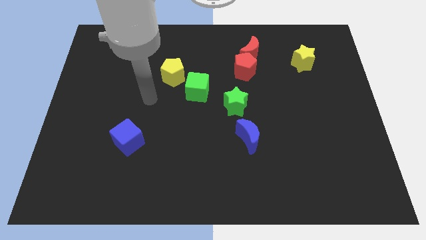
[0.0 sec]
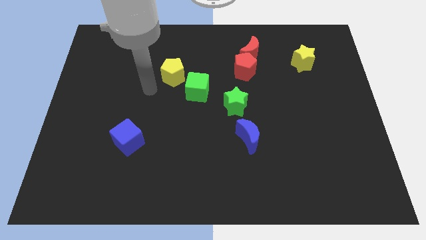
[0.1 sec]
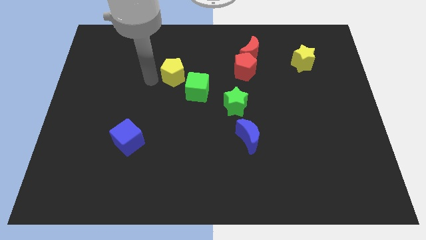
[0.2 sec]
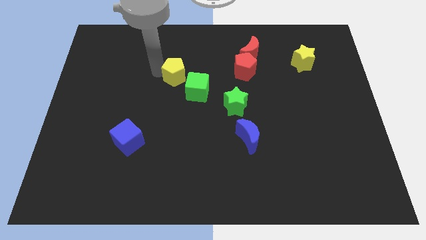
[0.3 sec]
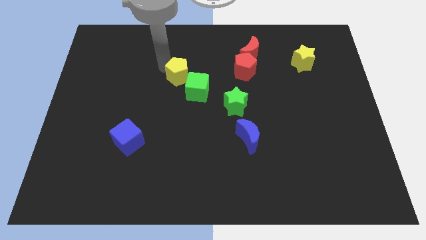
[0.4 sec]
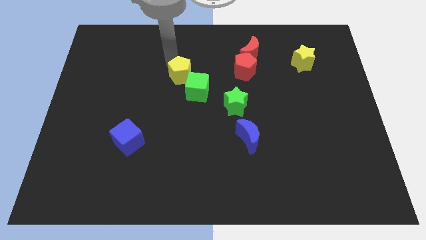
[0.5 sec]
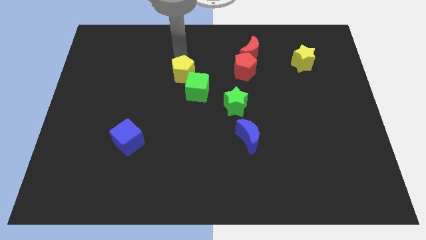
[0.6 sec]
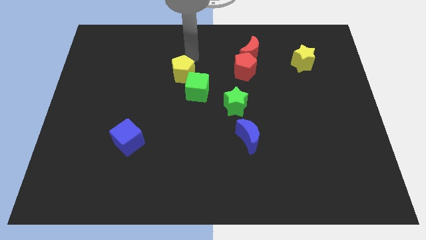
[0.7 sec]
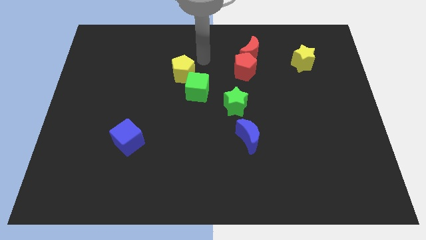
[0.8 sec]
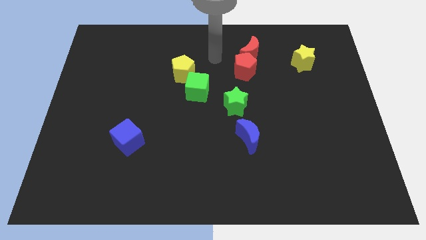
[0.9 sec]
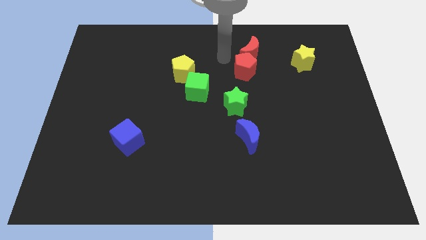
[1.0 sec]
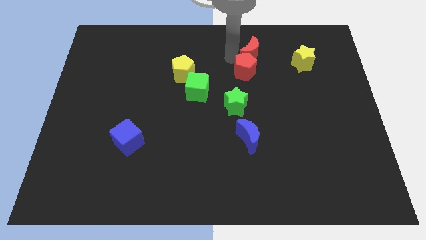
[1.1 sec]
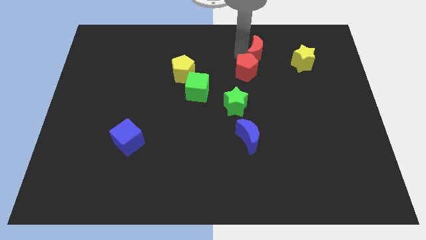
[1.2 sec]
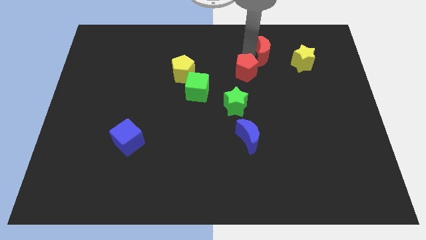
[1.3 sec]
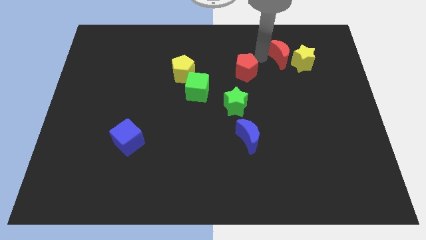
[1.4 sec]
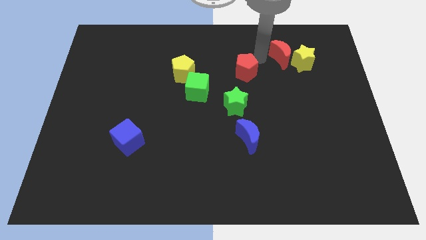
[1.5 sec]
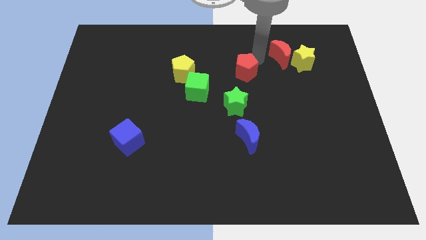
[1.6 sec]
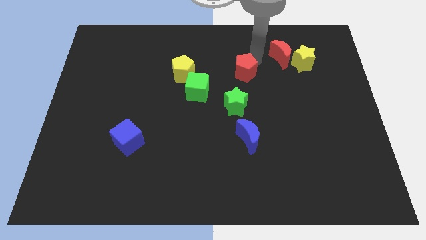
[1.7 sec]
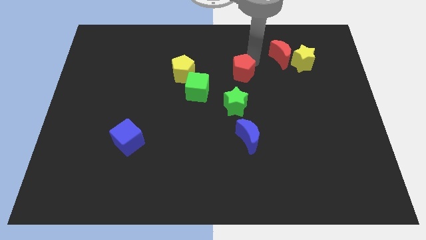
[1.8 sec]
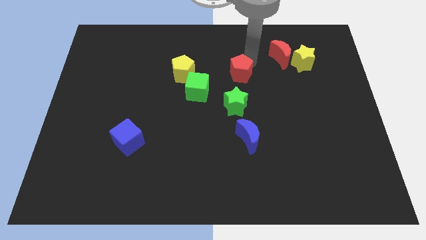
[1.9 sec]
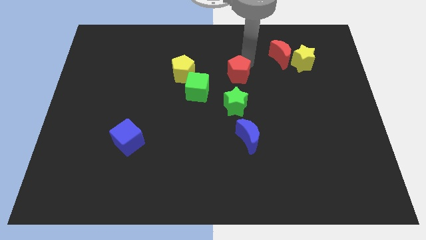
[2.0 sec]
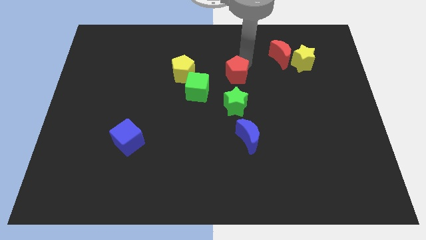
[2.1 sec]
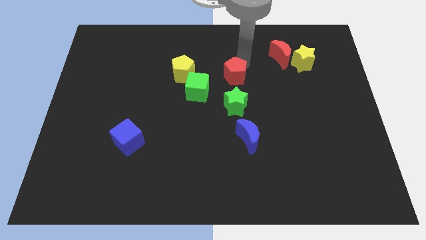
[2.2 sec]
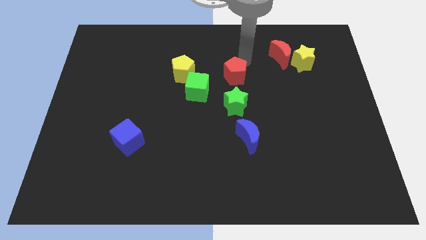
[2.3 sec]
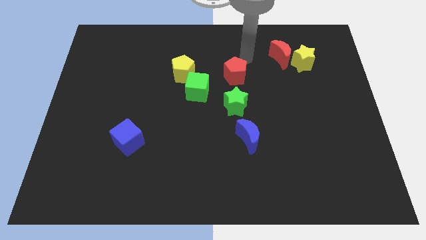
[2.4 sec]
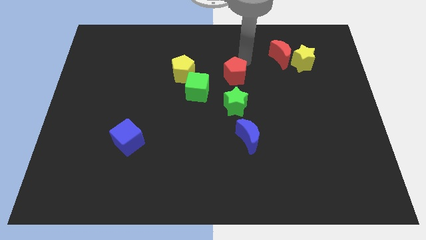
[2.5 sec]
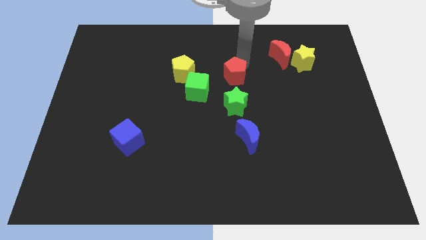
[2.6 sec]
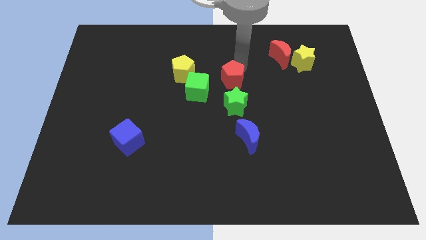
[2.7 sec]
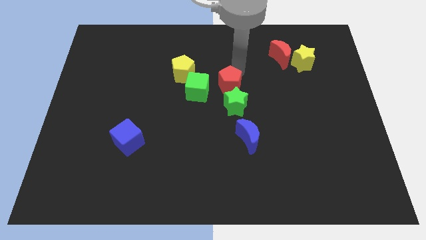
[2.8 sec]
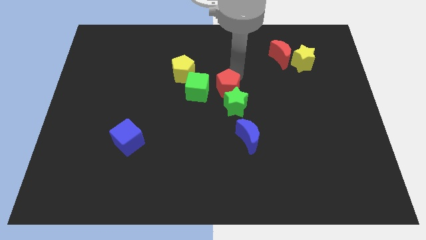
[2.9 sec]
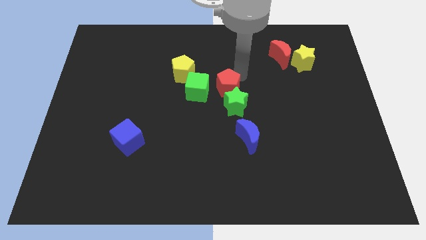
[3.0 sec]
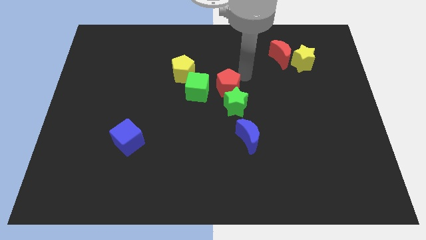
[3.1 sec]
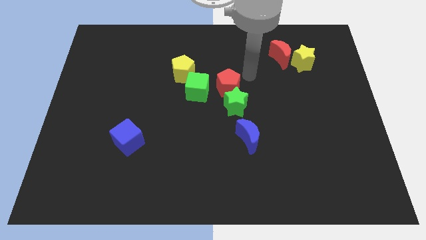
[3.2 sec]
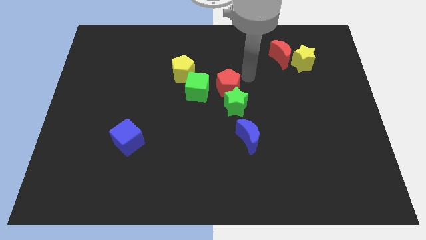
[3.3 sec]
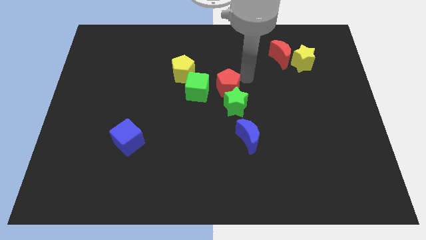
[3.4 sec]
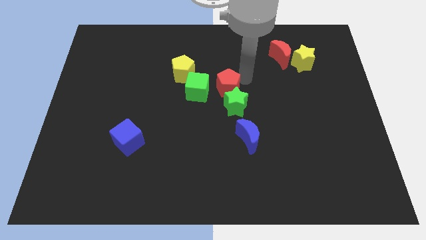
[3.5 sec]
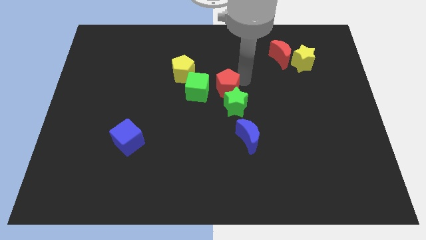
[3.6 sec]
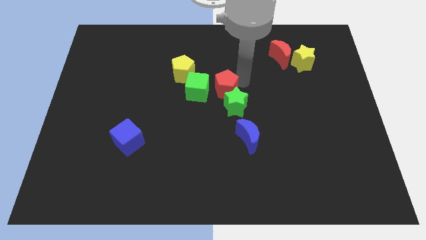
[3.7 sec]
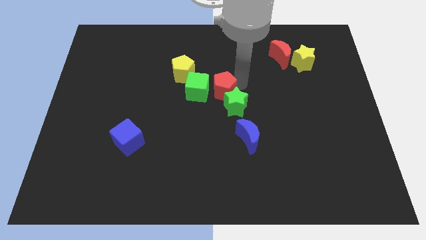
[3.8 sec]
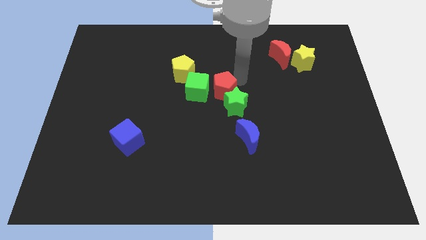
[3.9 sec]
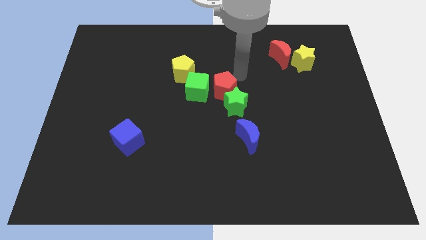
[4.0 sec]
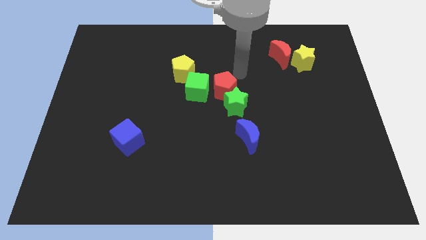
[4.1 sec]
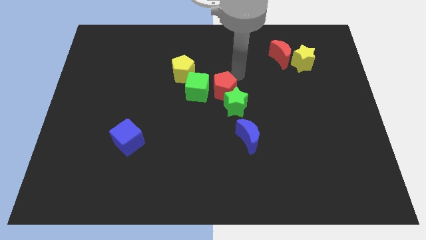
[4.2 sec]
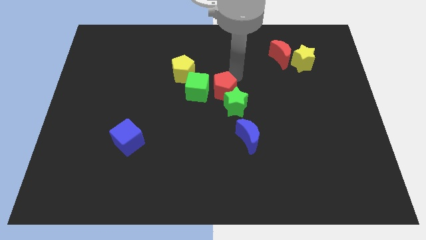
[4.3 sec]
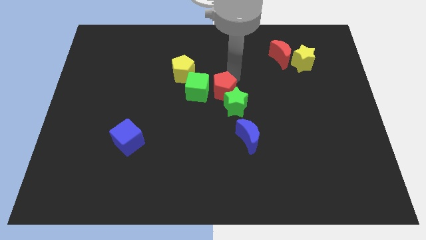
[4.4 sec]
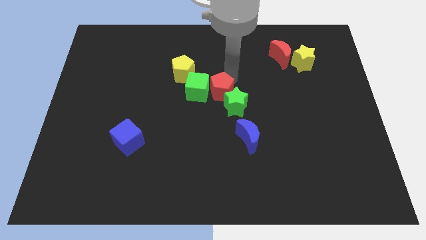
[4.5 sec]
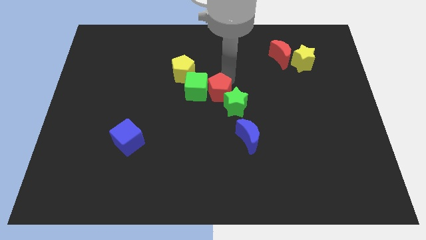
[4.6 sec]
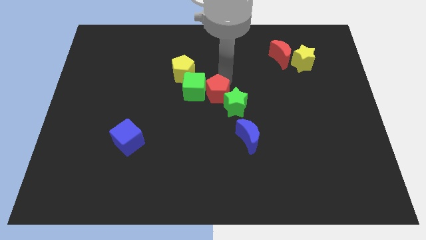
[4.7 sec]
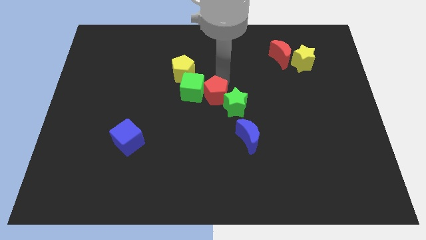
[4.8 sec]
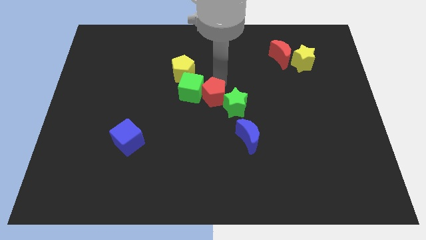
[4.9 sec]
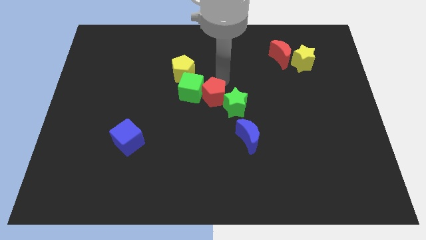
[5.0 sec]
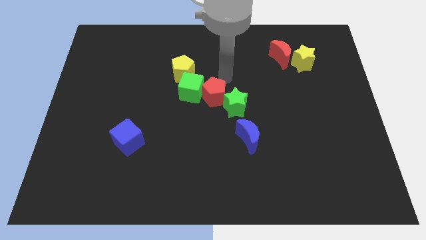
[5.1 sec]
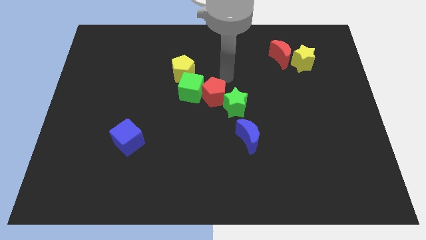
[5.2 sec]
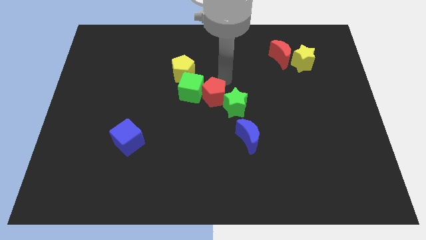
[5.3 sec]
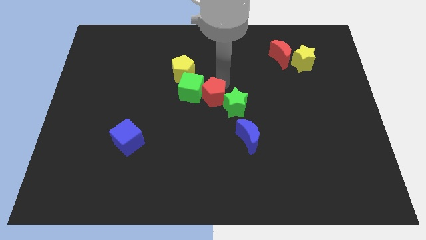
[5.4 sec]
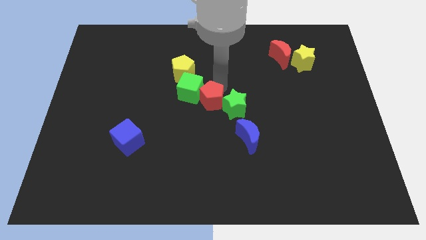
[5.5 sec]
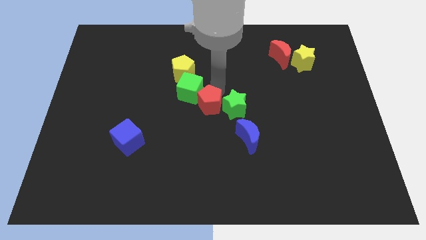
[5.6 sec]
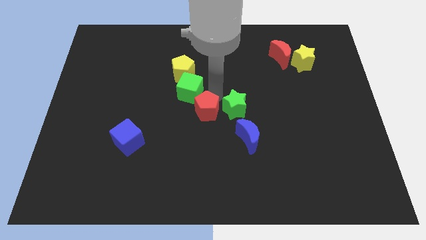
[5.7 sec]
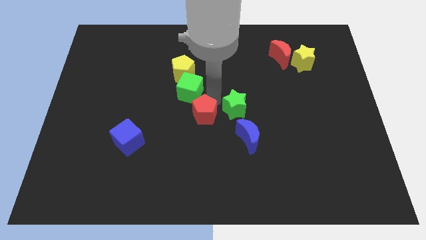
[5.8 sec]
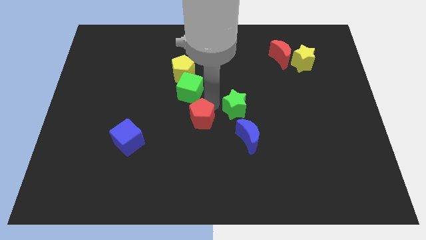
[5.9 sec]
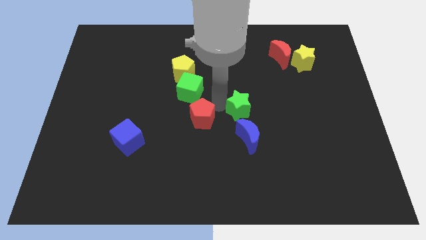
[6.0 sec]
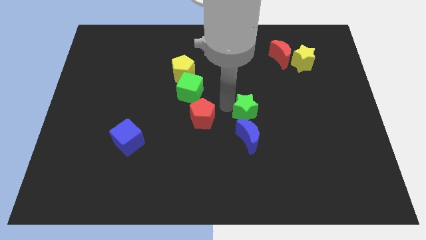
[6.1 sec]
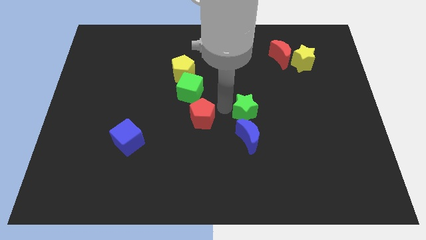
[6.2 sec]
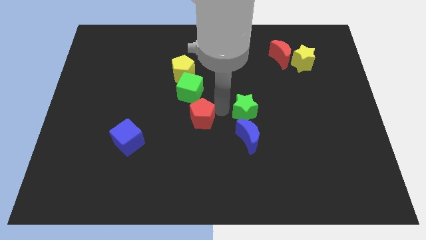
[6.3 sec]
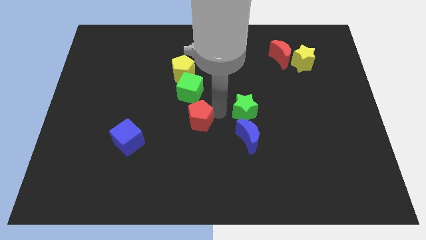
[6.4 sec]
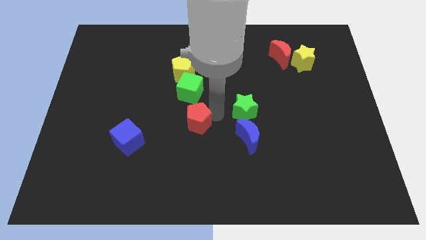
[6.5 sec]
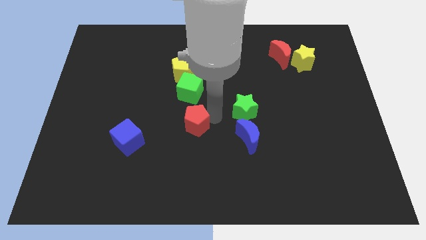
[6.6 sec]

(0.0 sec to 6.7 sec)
move the red pentagon downwards and then to the left

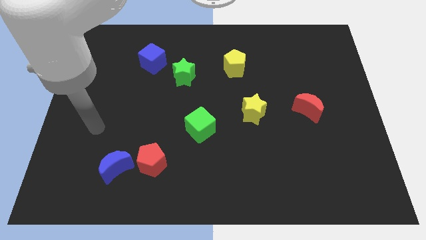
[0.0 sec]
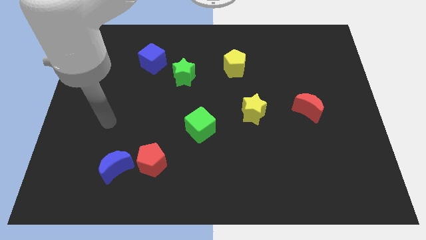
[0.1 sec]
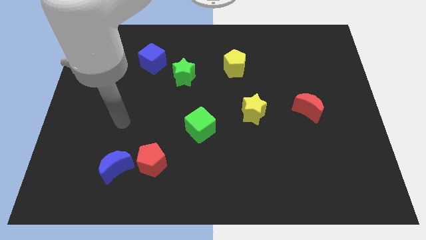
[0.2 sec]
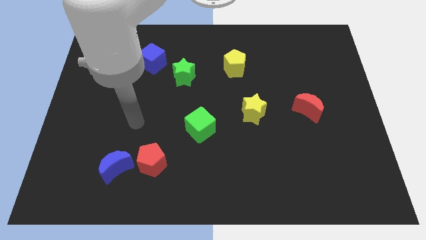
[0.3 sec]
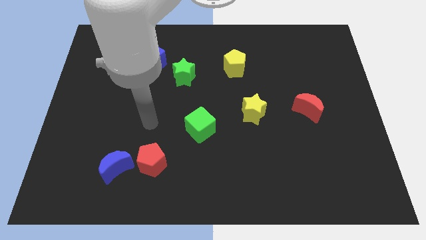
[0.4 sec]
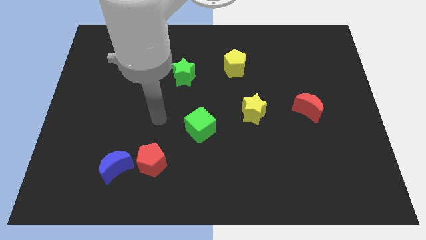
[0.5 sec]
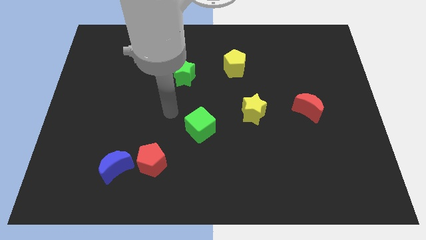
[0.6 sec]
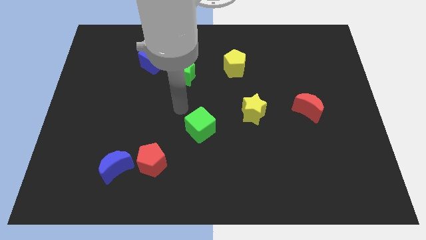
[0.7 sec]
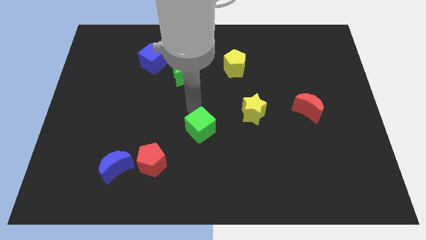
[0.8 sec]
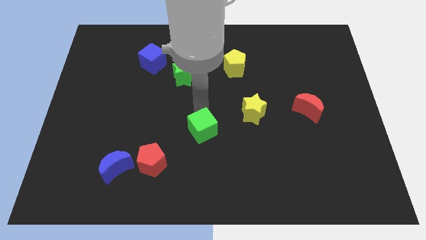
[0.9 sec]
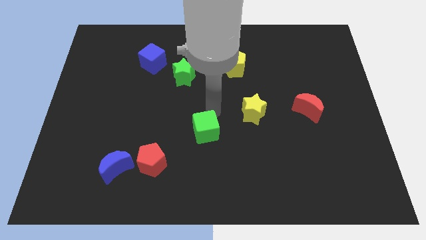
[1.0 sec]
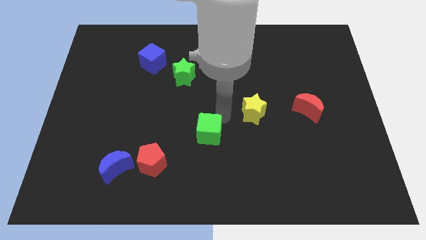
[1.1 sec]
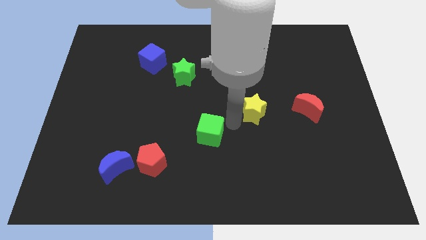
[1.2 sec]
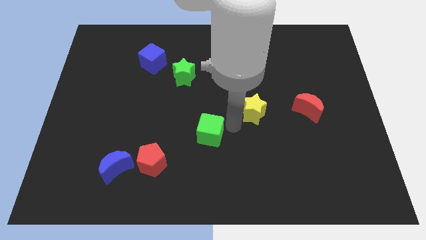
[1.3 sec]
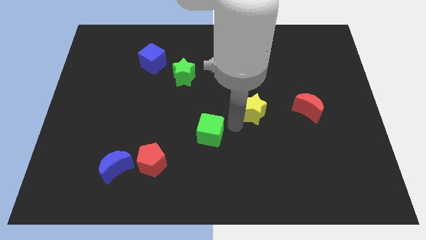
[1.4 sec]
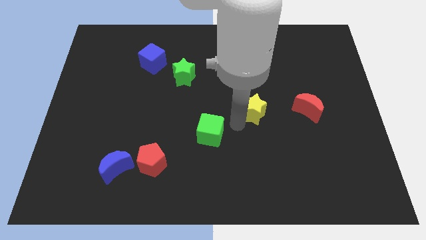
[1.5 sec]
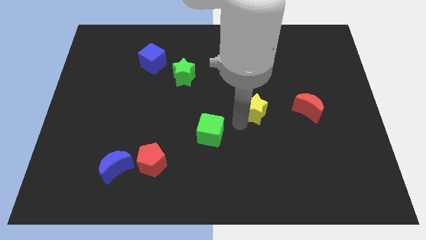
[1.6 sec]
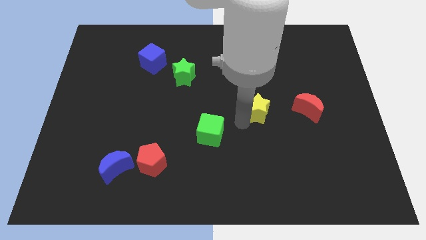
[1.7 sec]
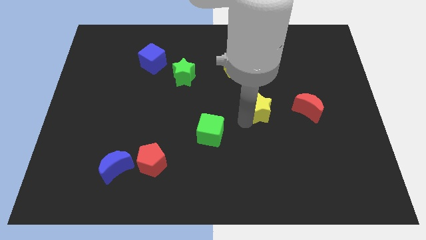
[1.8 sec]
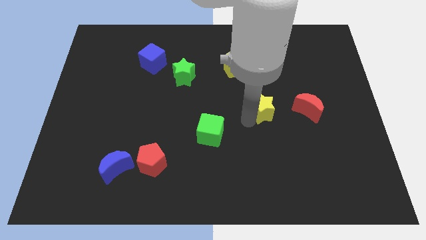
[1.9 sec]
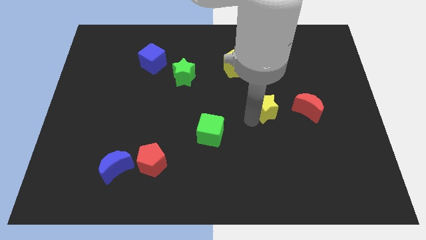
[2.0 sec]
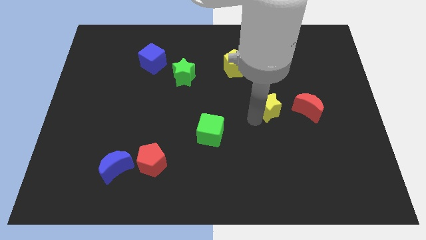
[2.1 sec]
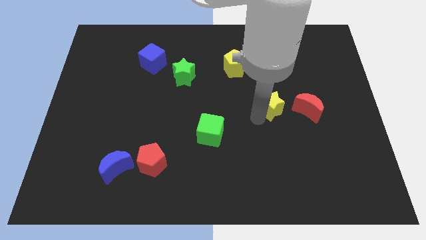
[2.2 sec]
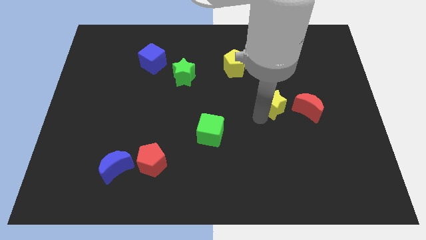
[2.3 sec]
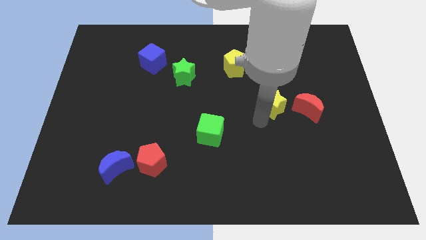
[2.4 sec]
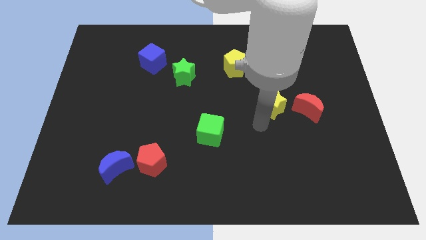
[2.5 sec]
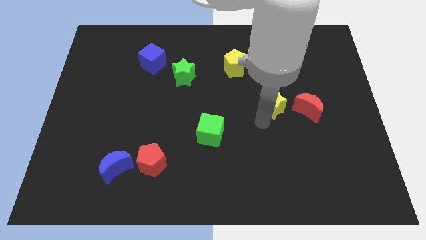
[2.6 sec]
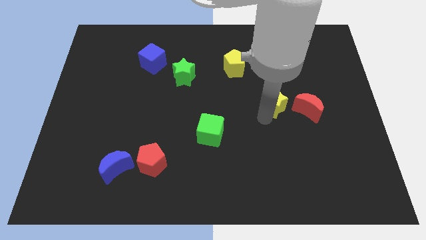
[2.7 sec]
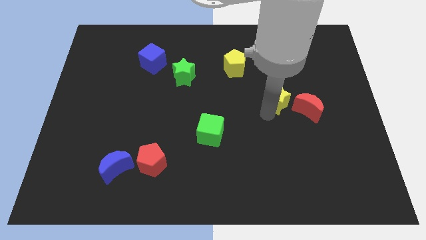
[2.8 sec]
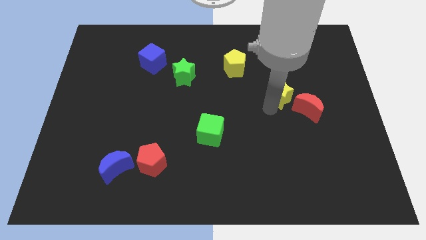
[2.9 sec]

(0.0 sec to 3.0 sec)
move the yellow star a bit upwards and then right
